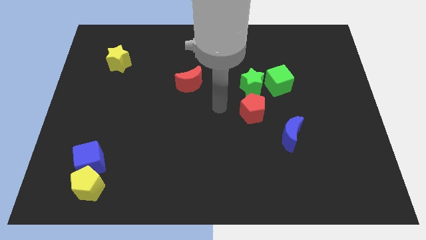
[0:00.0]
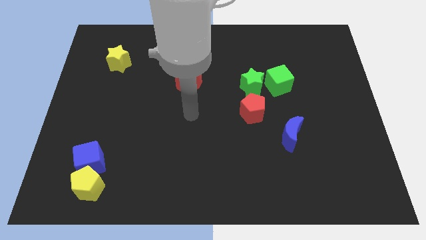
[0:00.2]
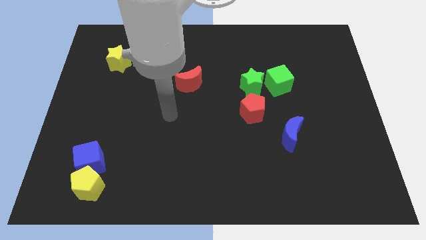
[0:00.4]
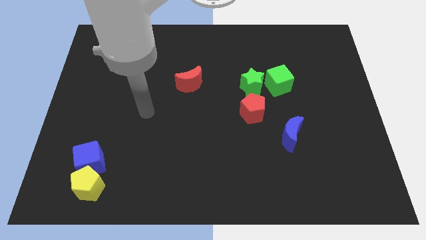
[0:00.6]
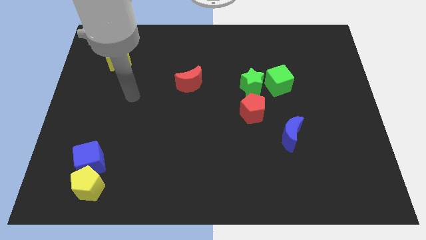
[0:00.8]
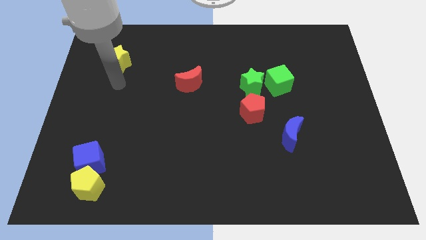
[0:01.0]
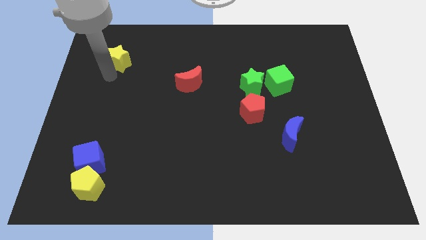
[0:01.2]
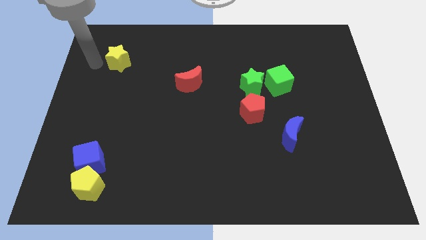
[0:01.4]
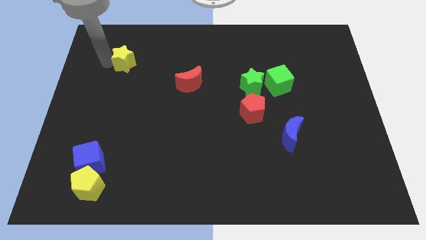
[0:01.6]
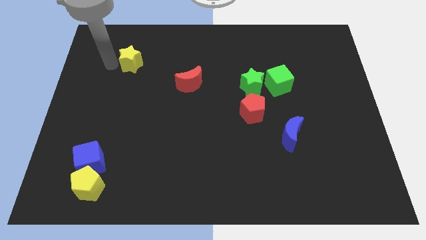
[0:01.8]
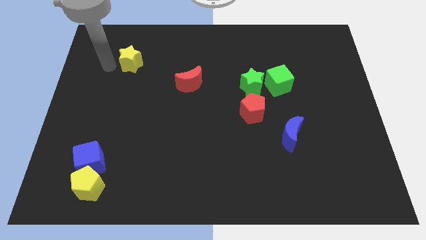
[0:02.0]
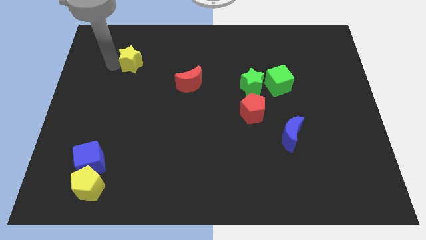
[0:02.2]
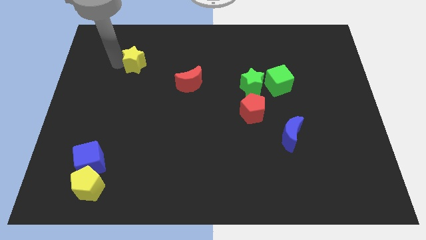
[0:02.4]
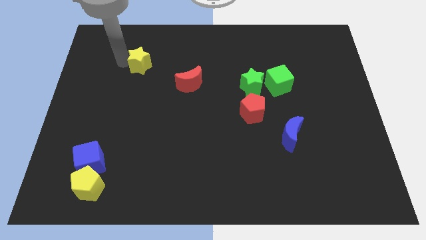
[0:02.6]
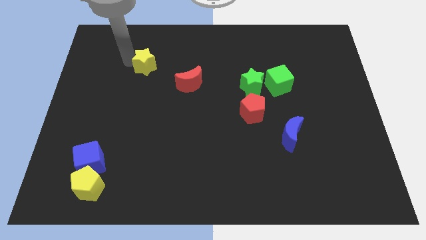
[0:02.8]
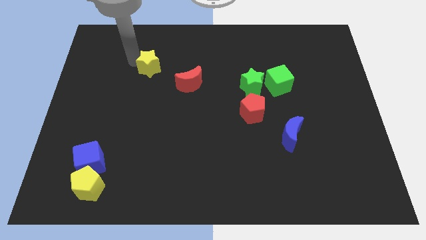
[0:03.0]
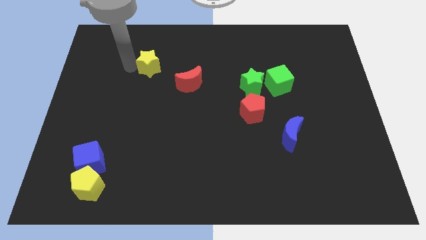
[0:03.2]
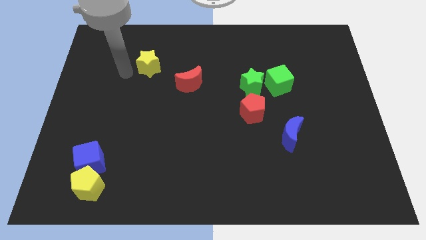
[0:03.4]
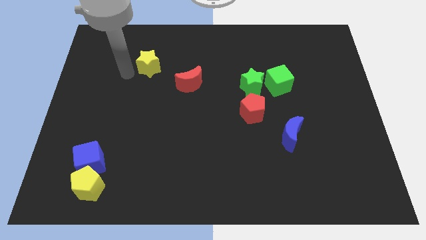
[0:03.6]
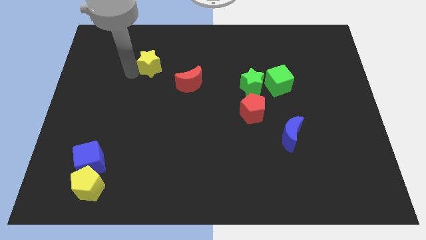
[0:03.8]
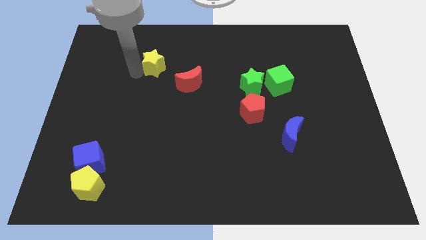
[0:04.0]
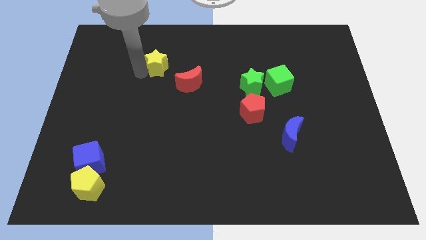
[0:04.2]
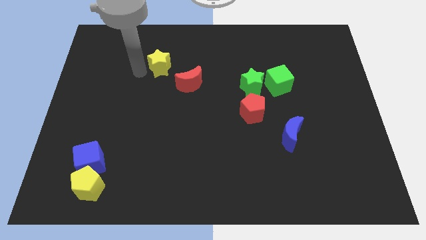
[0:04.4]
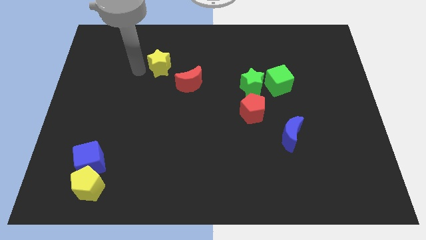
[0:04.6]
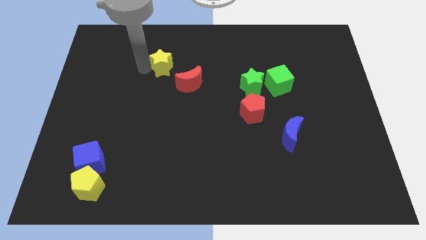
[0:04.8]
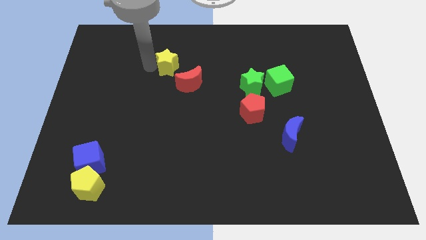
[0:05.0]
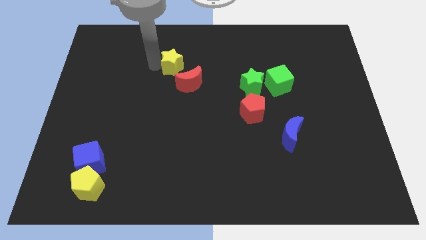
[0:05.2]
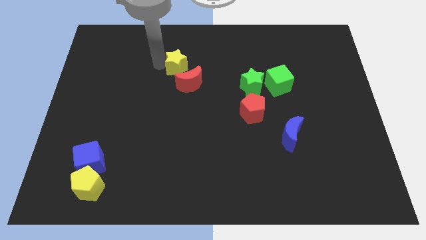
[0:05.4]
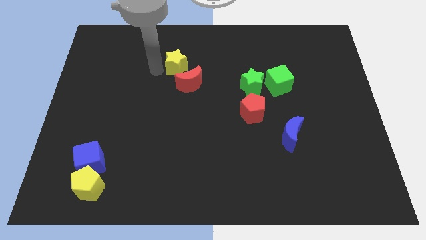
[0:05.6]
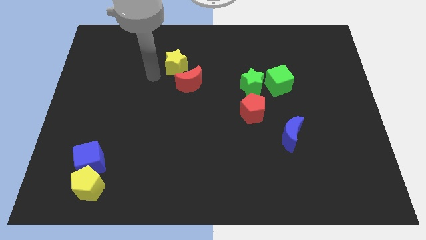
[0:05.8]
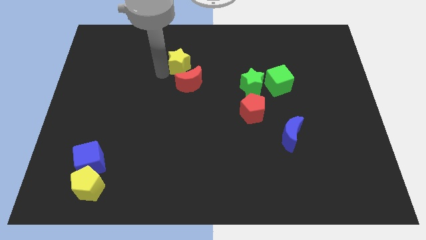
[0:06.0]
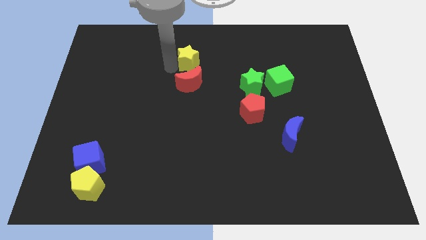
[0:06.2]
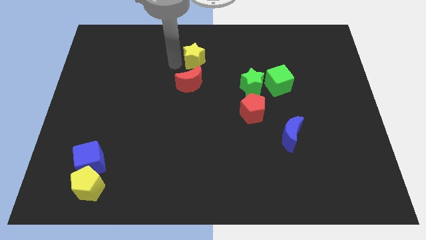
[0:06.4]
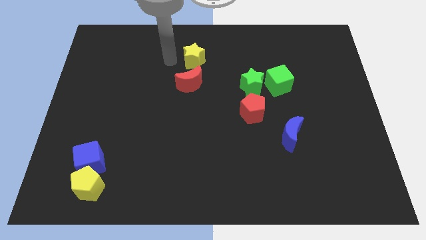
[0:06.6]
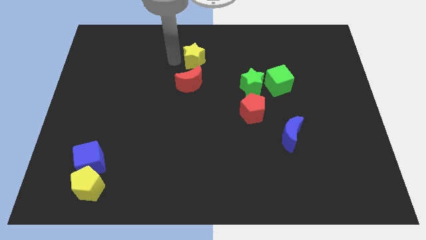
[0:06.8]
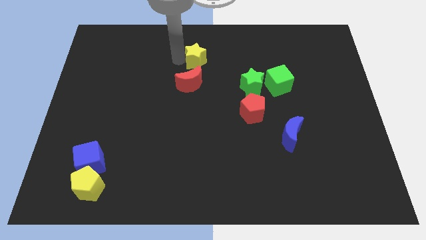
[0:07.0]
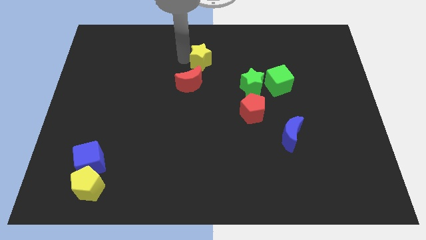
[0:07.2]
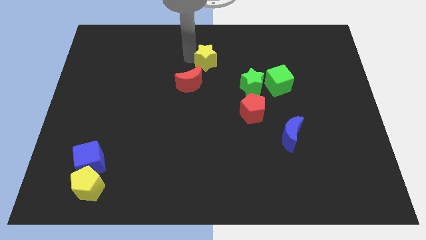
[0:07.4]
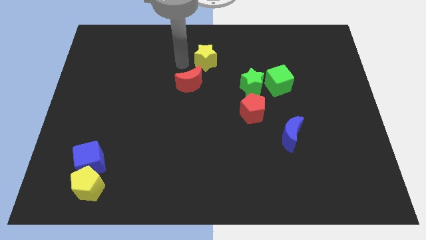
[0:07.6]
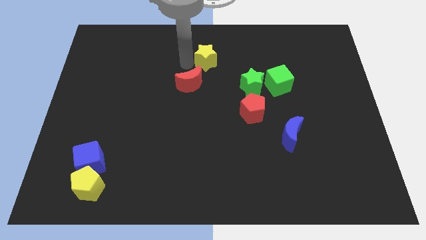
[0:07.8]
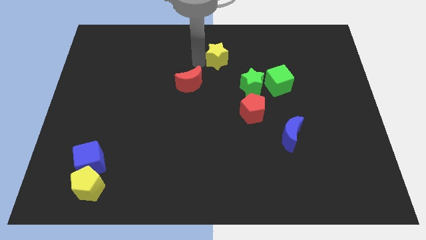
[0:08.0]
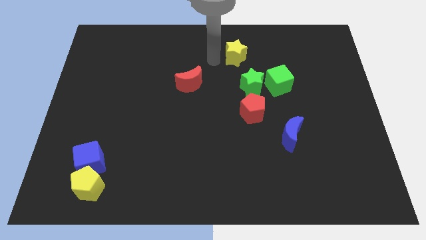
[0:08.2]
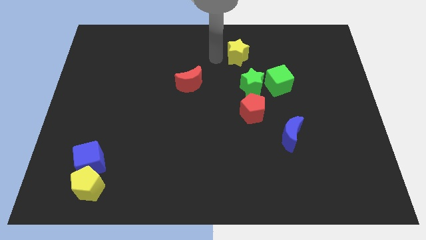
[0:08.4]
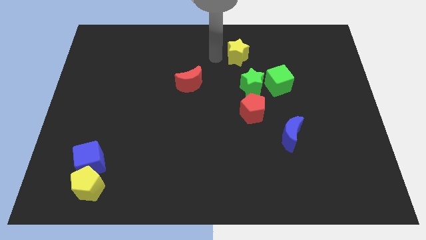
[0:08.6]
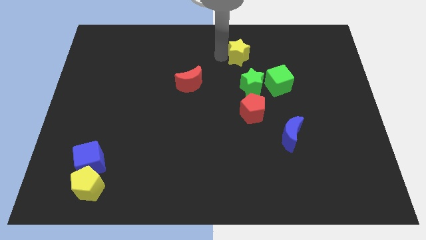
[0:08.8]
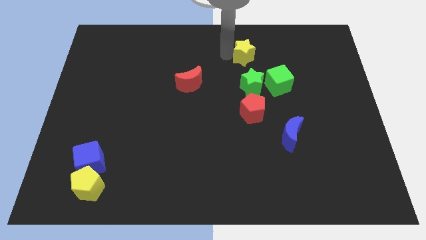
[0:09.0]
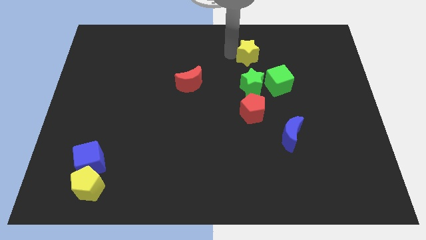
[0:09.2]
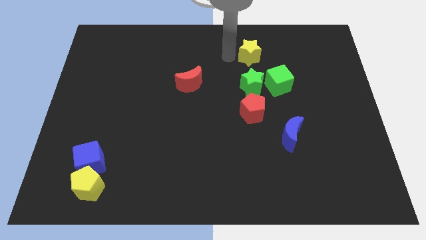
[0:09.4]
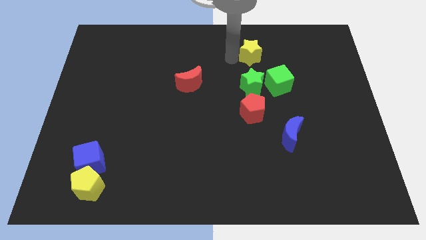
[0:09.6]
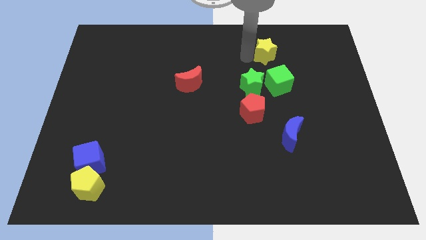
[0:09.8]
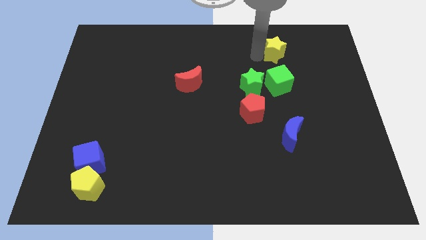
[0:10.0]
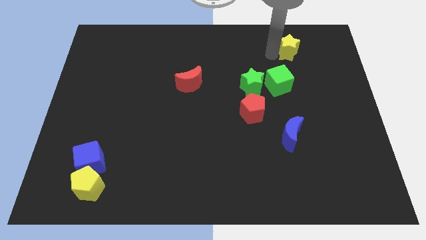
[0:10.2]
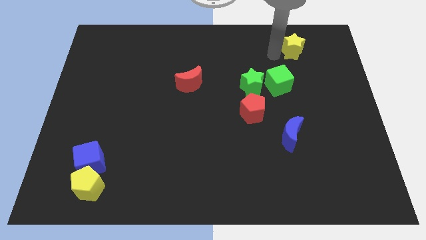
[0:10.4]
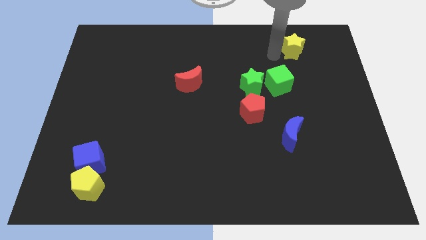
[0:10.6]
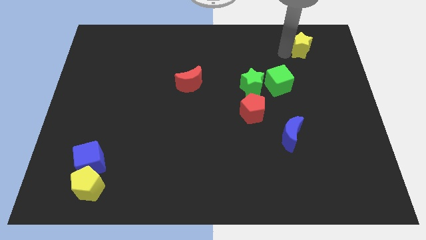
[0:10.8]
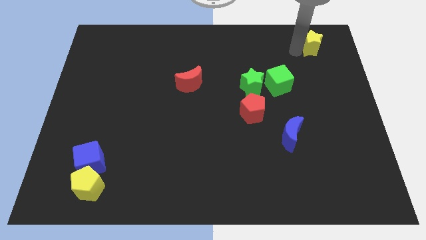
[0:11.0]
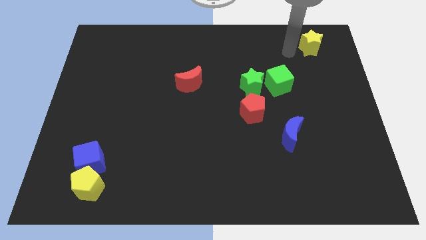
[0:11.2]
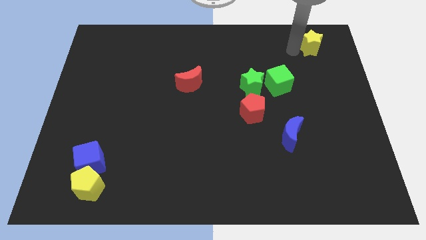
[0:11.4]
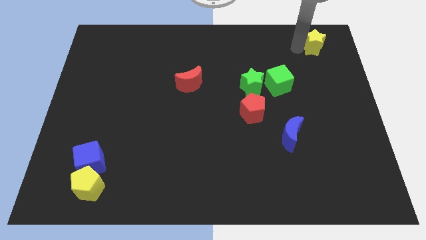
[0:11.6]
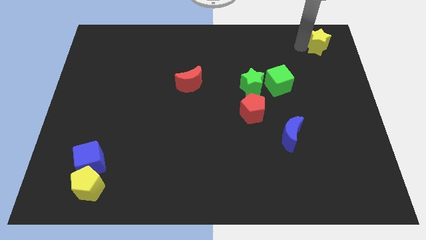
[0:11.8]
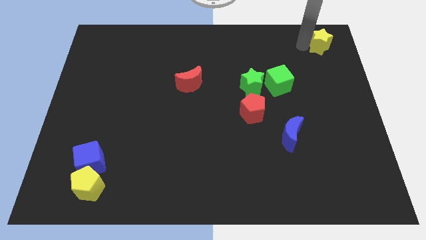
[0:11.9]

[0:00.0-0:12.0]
slide the yellow star to the upper right corner

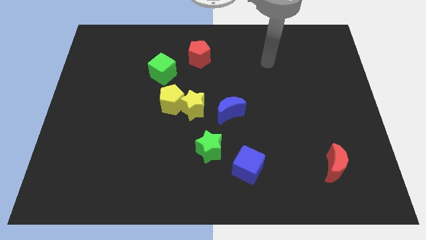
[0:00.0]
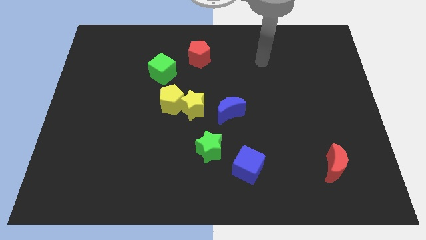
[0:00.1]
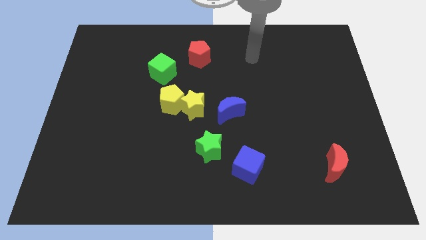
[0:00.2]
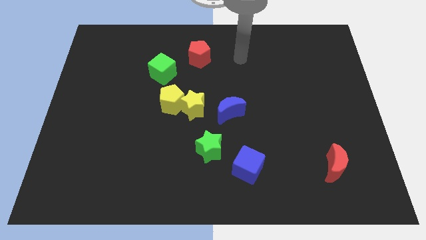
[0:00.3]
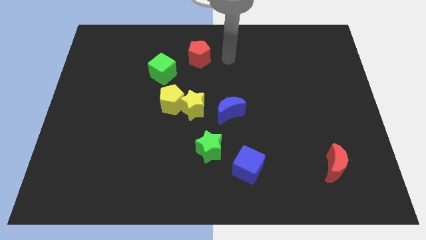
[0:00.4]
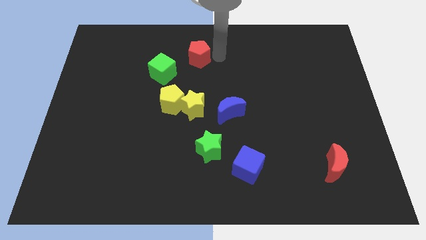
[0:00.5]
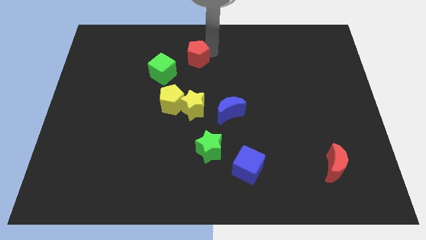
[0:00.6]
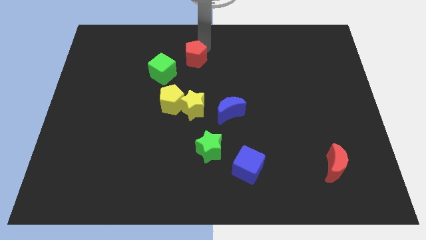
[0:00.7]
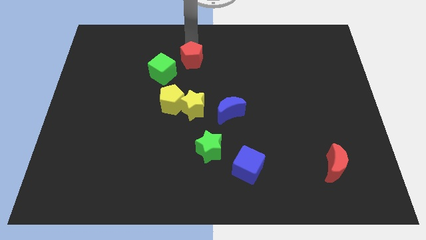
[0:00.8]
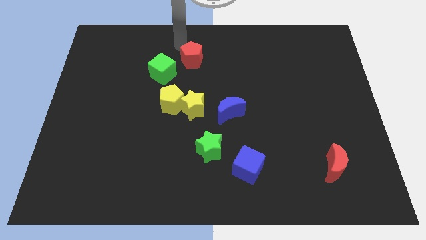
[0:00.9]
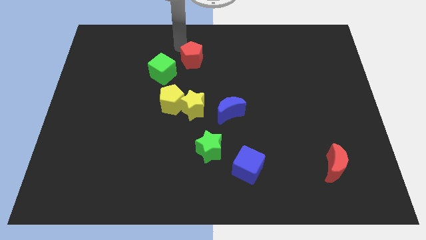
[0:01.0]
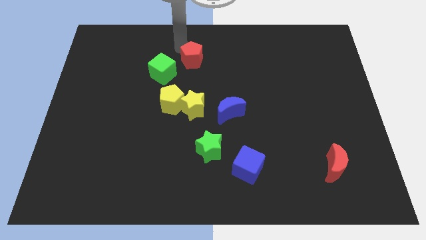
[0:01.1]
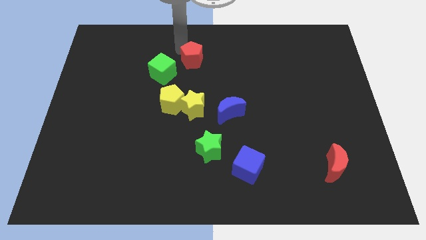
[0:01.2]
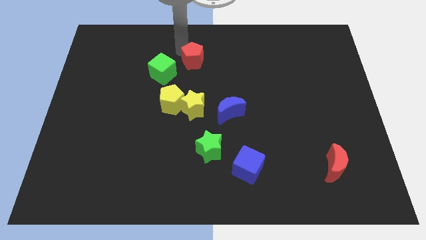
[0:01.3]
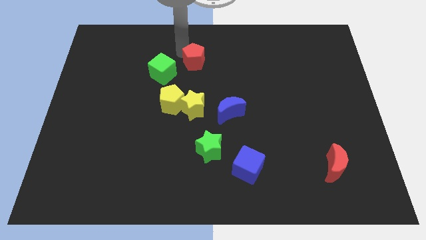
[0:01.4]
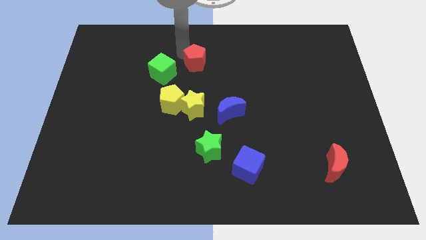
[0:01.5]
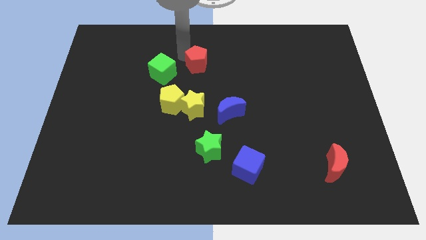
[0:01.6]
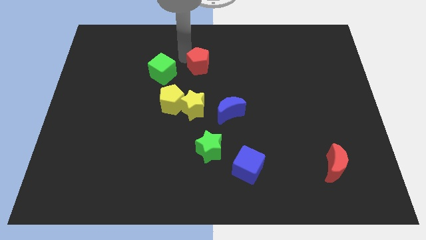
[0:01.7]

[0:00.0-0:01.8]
put the red pentagon to the center of the board
